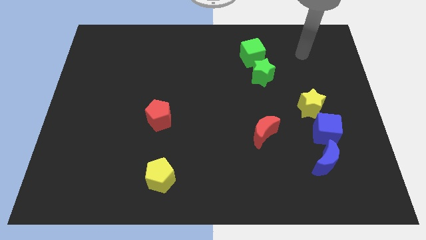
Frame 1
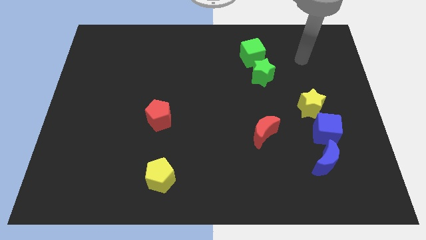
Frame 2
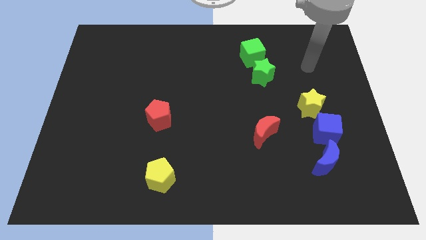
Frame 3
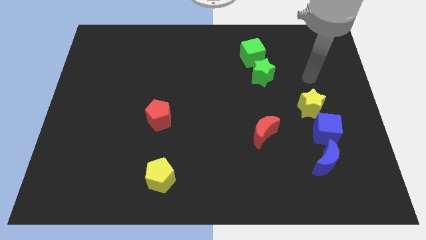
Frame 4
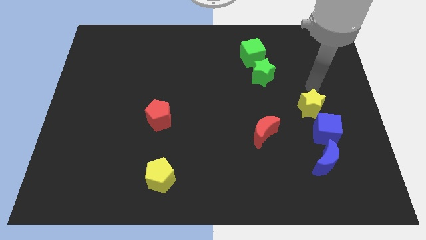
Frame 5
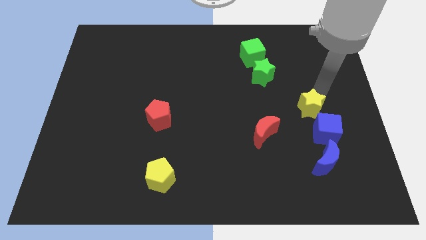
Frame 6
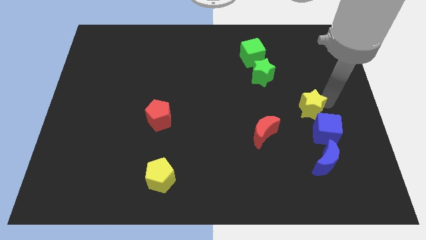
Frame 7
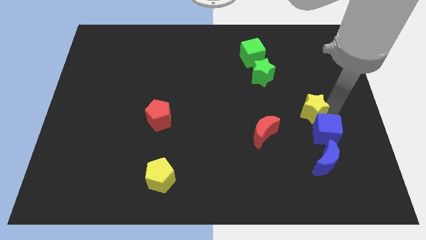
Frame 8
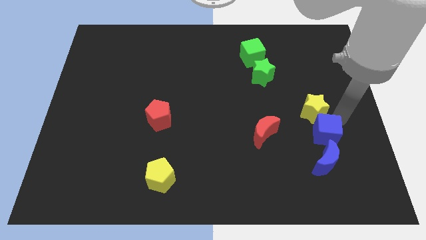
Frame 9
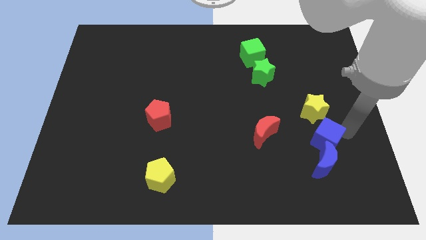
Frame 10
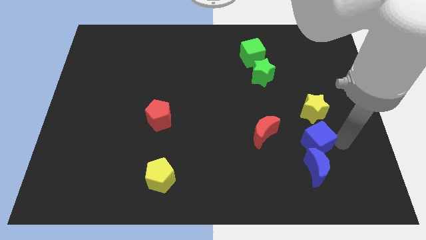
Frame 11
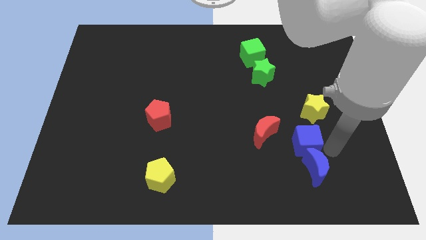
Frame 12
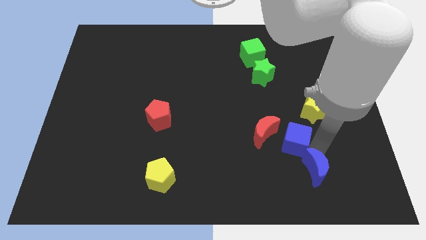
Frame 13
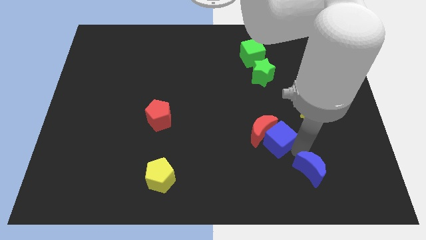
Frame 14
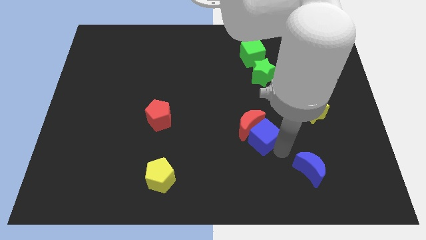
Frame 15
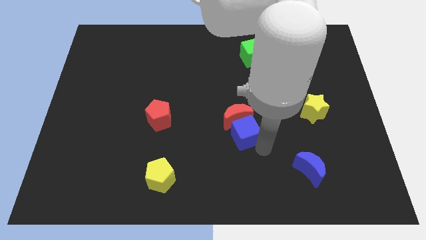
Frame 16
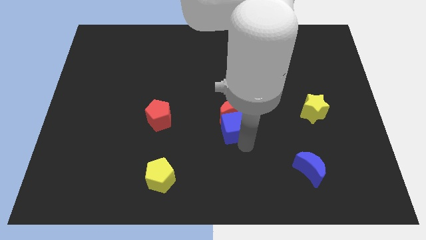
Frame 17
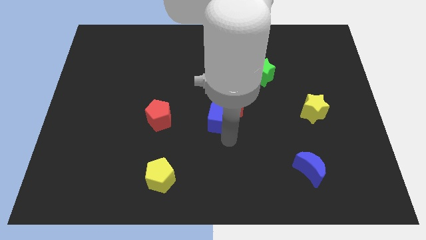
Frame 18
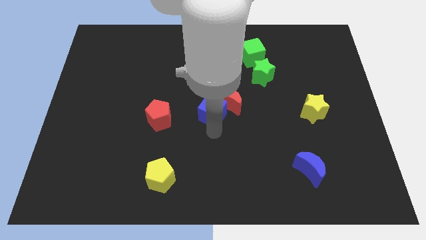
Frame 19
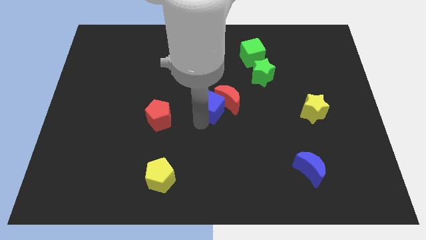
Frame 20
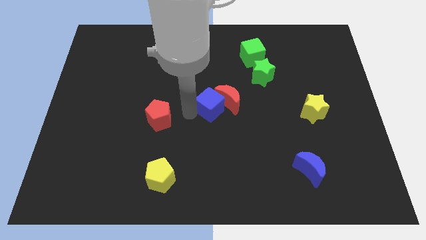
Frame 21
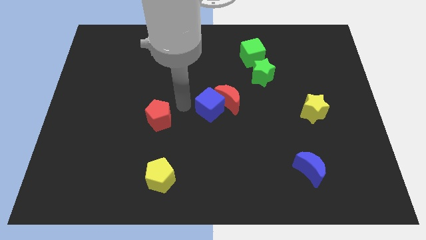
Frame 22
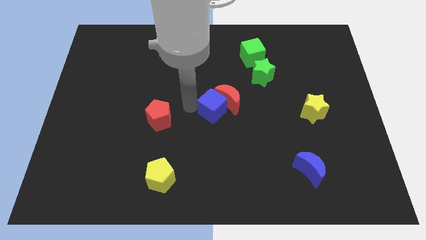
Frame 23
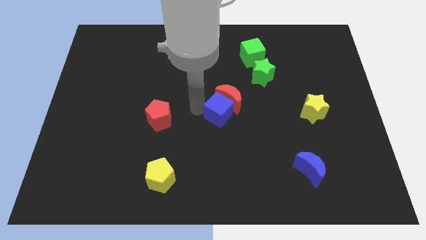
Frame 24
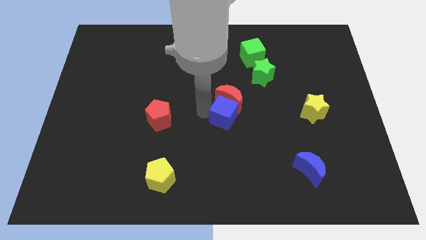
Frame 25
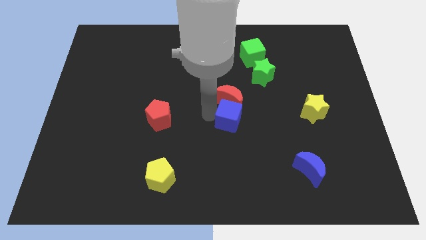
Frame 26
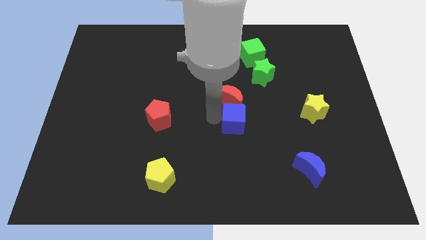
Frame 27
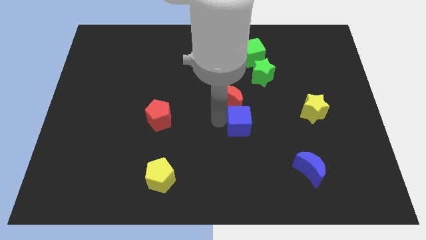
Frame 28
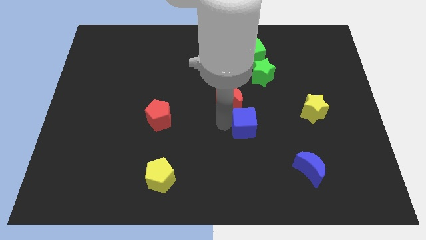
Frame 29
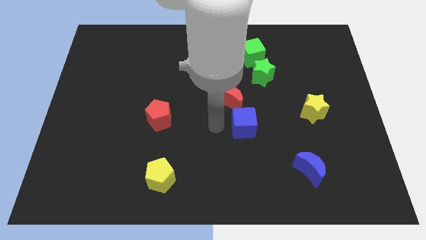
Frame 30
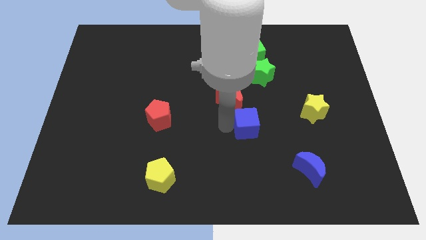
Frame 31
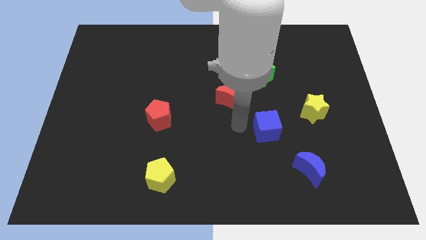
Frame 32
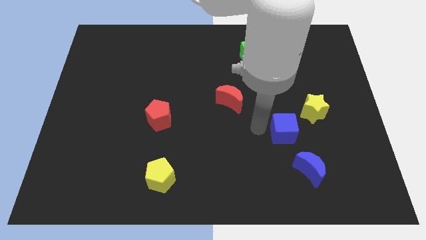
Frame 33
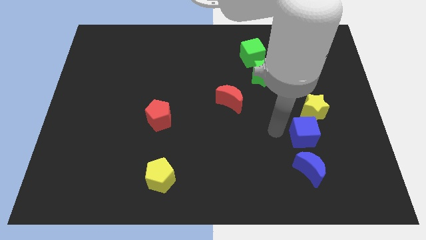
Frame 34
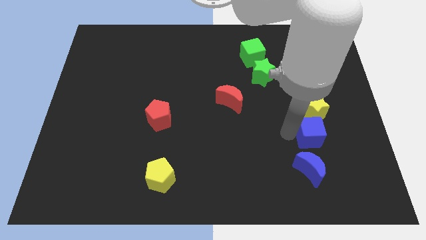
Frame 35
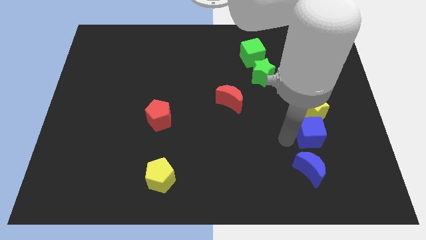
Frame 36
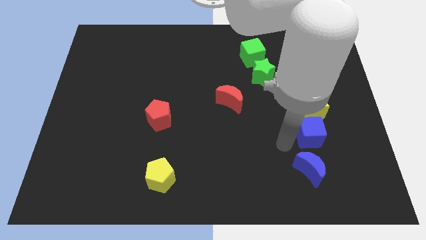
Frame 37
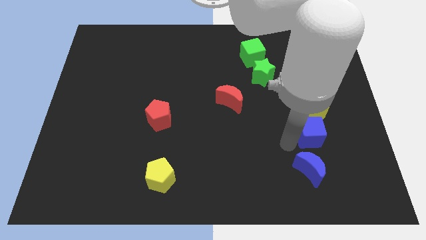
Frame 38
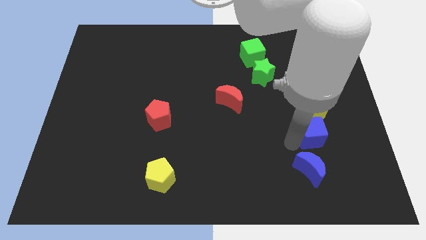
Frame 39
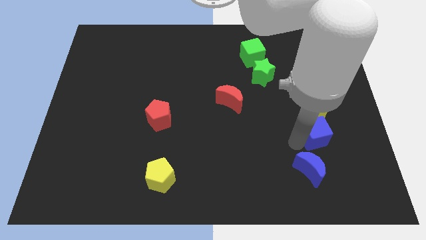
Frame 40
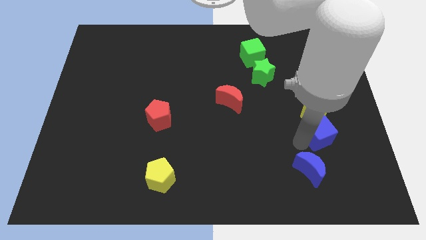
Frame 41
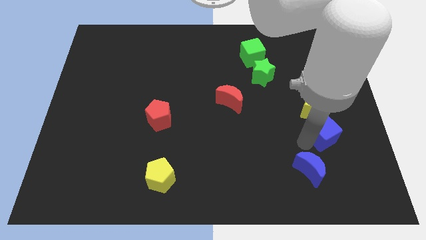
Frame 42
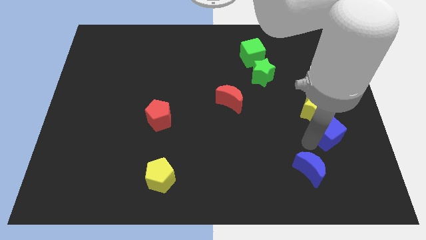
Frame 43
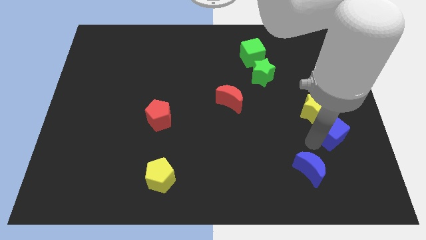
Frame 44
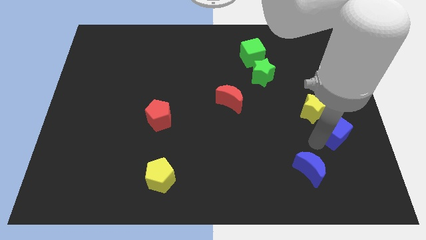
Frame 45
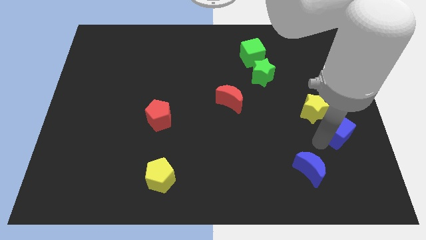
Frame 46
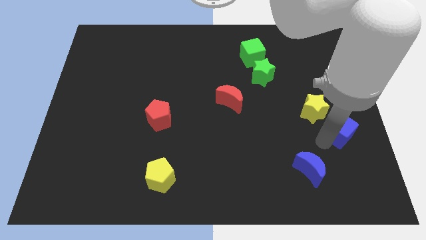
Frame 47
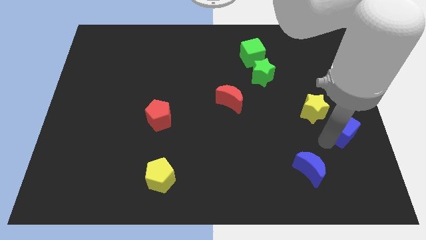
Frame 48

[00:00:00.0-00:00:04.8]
move the blue cube to the center right

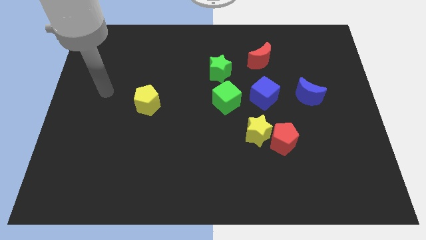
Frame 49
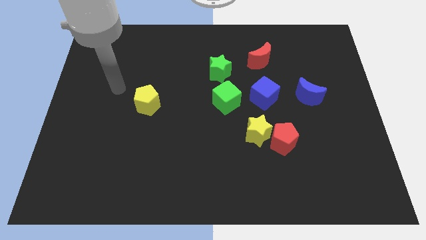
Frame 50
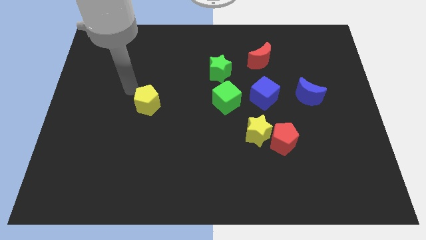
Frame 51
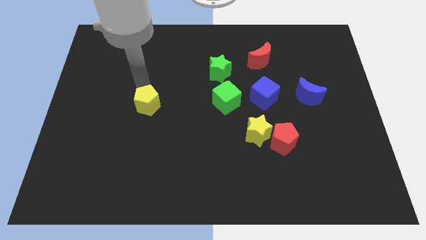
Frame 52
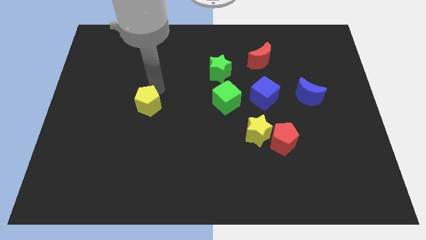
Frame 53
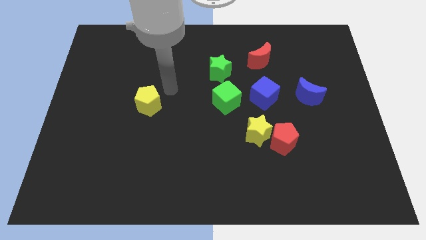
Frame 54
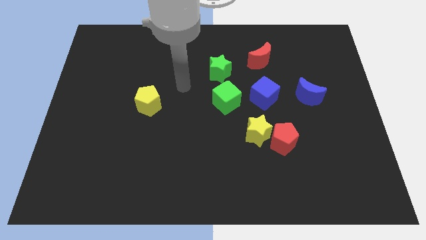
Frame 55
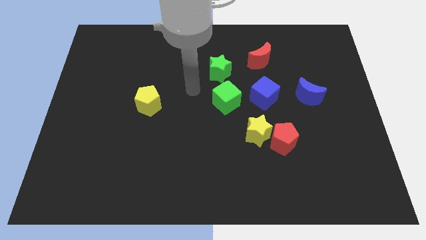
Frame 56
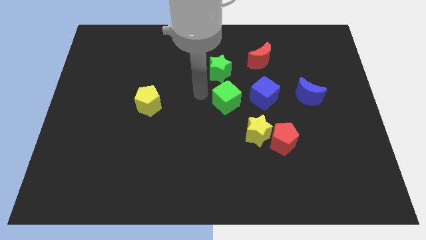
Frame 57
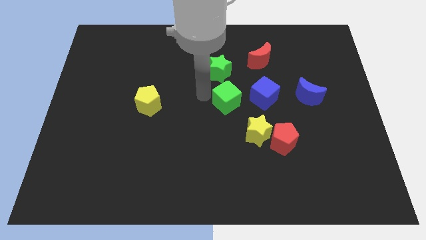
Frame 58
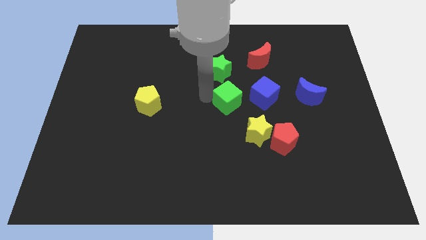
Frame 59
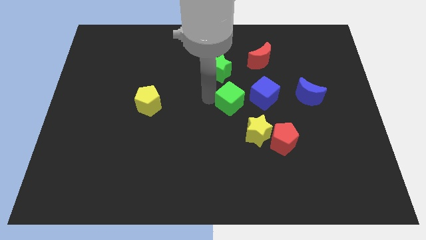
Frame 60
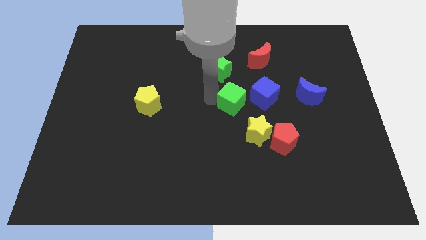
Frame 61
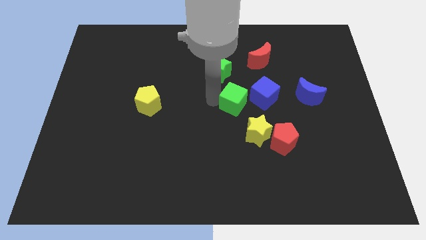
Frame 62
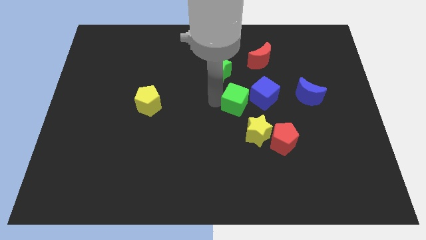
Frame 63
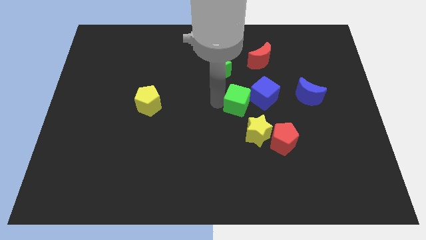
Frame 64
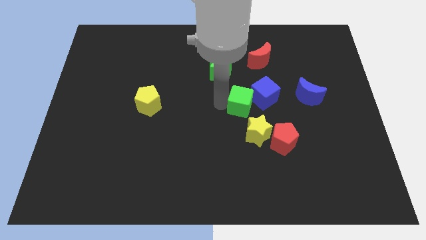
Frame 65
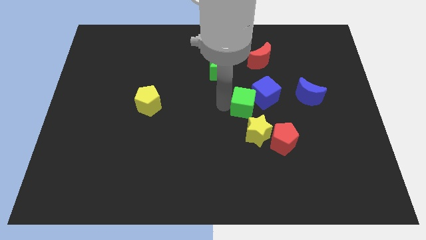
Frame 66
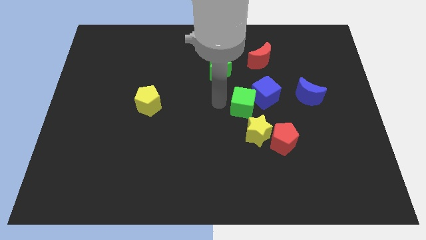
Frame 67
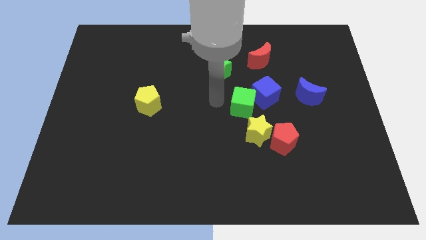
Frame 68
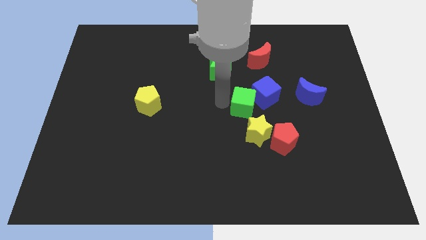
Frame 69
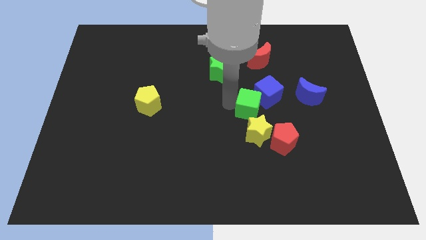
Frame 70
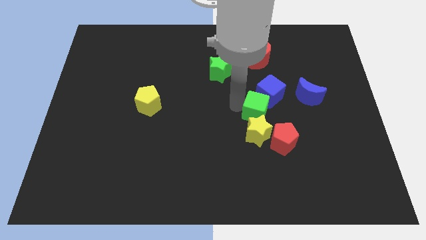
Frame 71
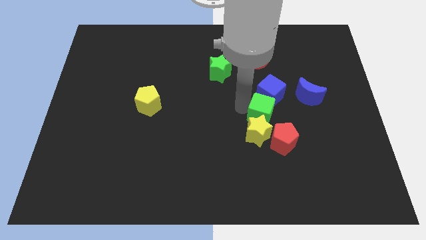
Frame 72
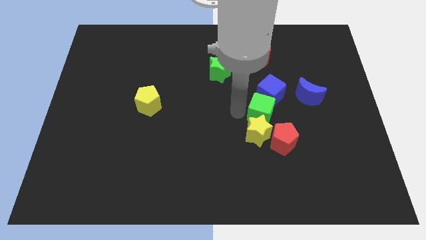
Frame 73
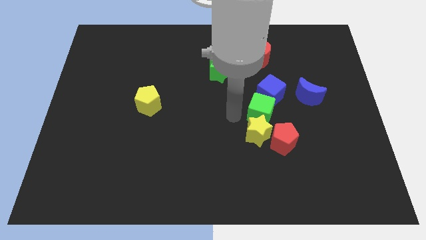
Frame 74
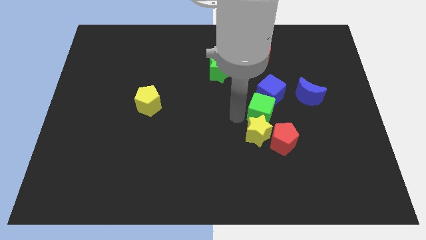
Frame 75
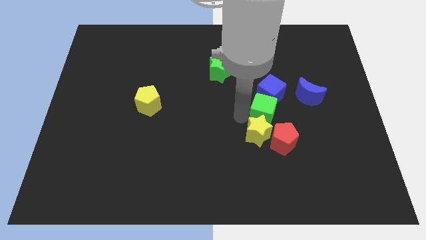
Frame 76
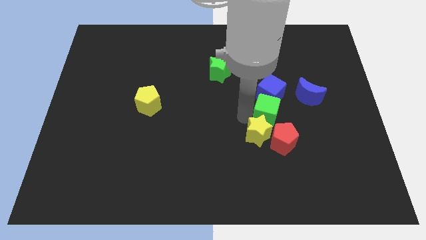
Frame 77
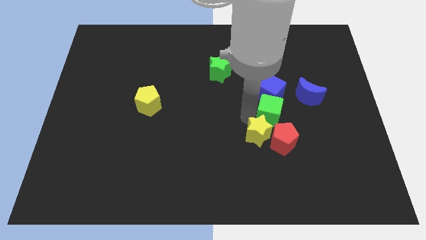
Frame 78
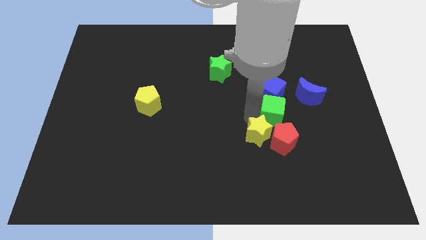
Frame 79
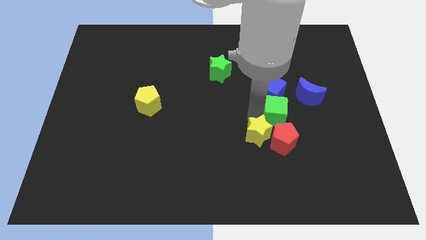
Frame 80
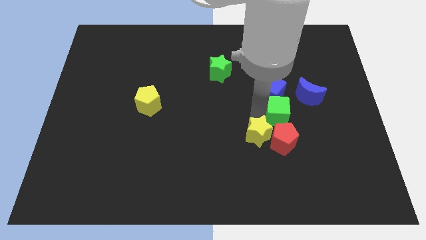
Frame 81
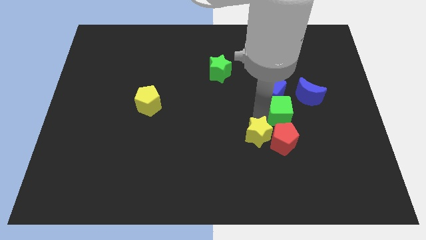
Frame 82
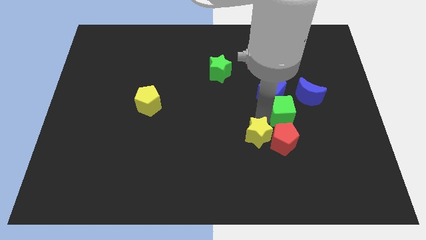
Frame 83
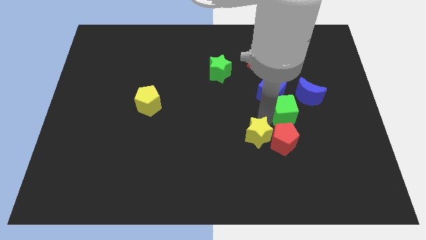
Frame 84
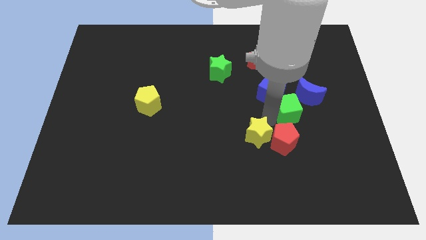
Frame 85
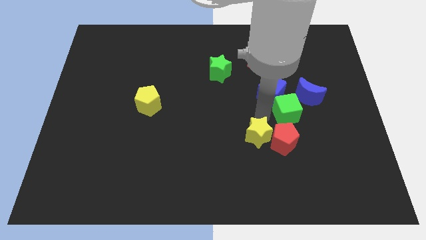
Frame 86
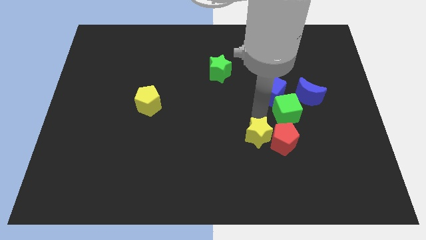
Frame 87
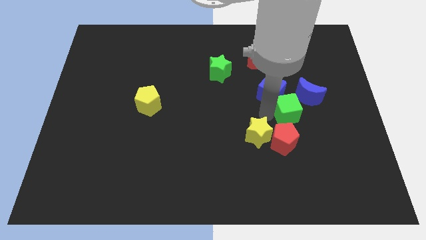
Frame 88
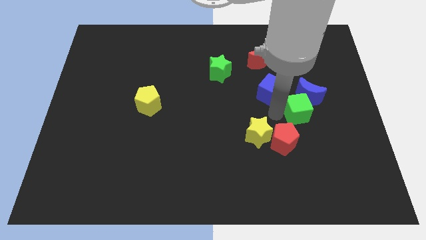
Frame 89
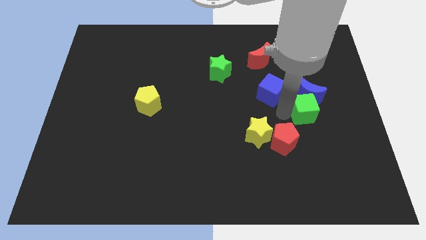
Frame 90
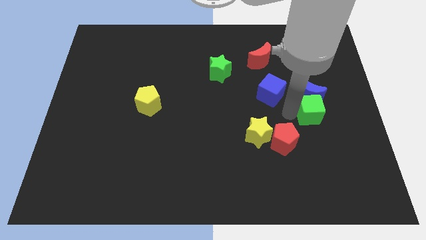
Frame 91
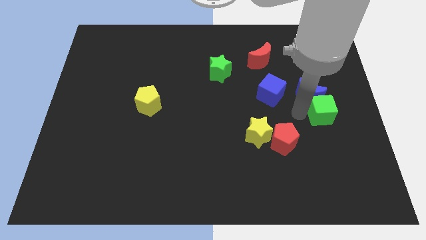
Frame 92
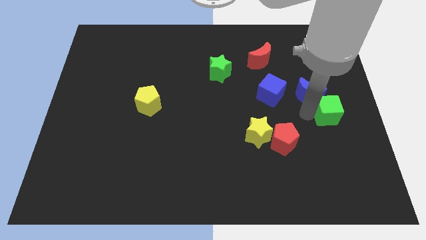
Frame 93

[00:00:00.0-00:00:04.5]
move the green cube to the right side
